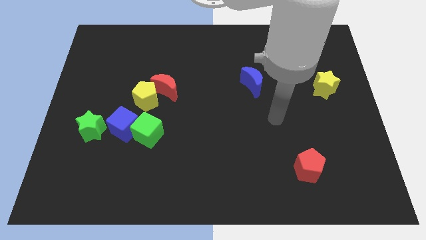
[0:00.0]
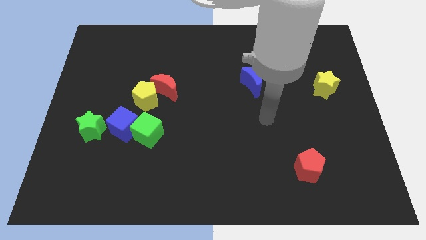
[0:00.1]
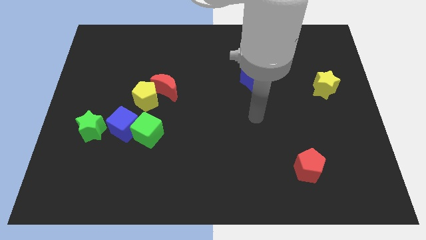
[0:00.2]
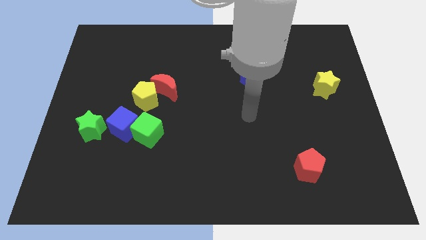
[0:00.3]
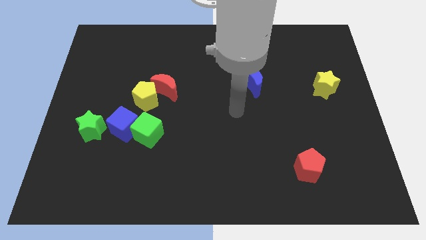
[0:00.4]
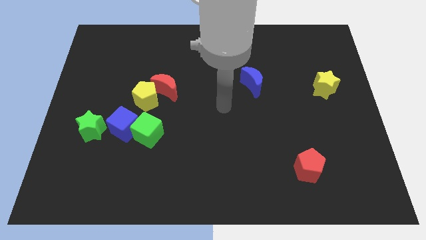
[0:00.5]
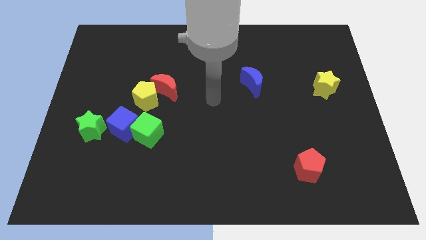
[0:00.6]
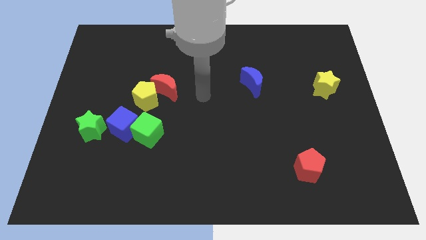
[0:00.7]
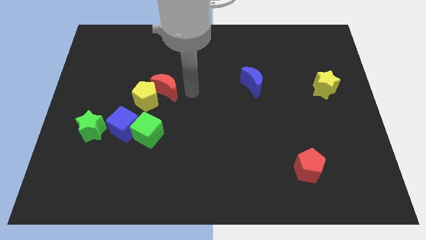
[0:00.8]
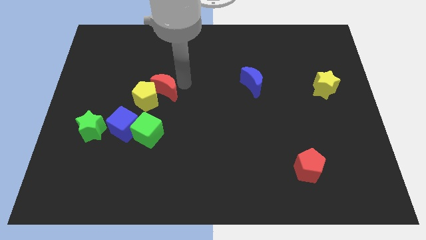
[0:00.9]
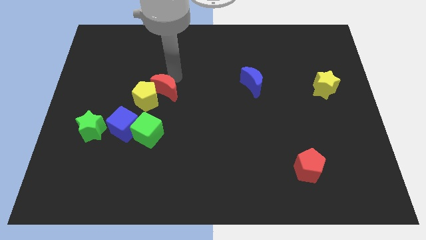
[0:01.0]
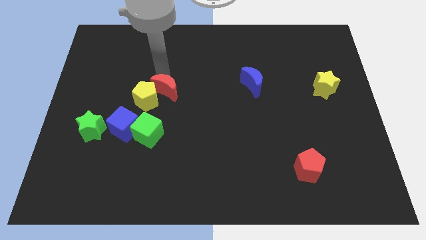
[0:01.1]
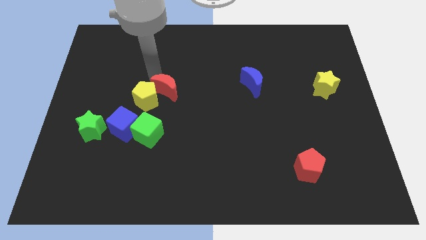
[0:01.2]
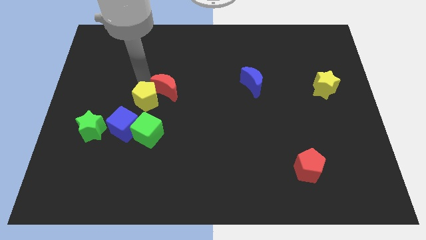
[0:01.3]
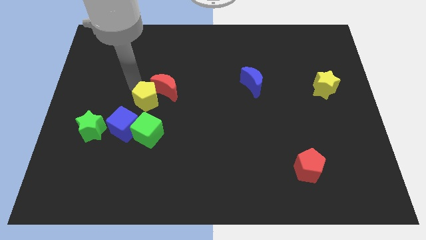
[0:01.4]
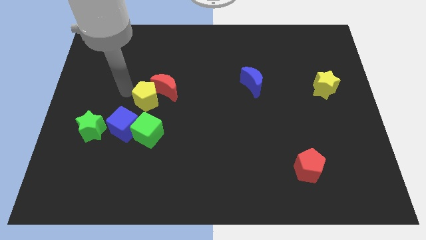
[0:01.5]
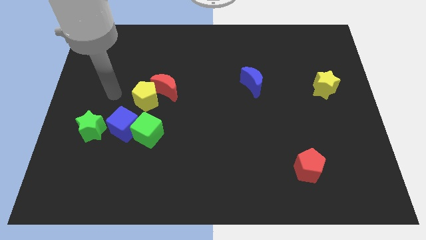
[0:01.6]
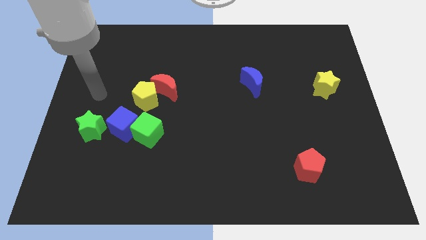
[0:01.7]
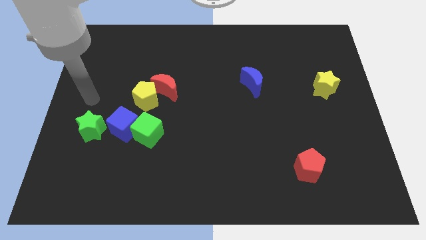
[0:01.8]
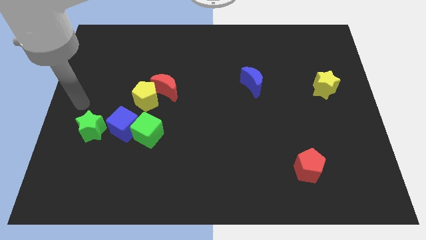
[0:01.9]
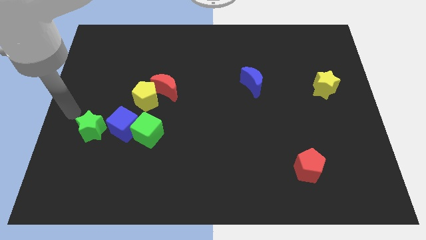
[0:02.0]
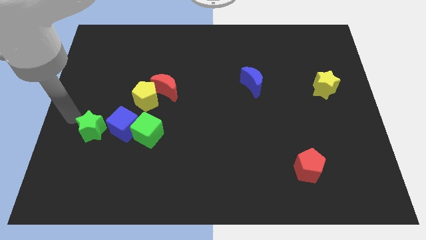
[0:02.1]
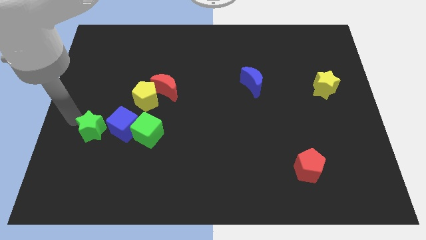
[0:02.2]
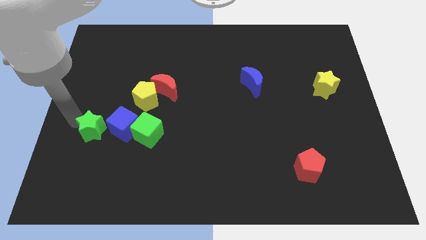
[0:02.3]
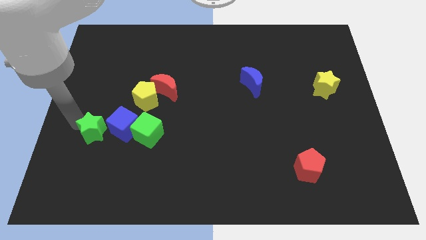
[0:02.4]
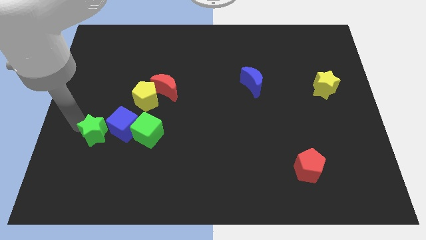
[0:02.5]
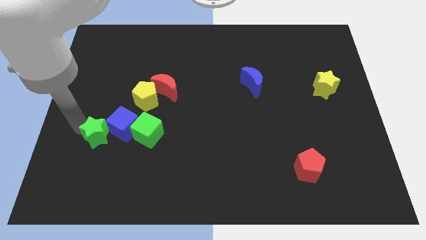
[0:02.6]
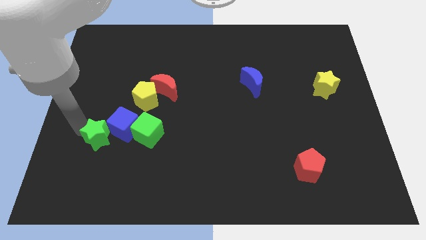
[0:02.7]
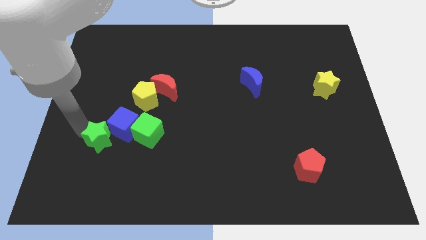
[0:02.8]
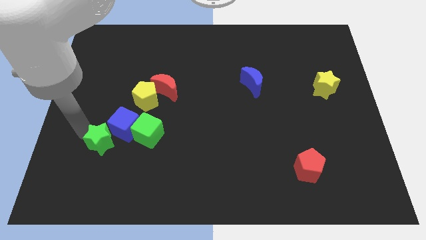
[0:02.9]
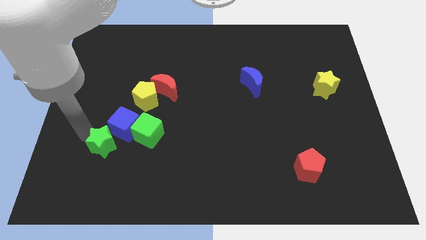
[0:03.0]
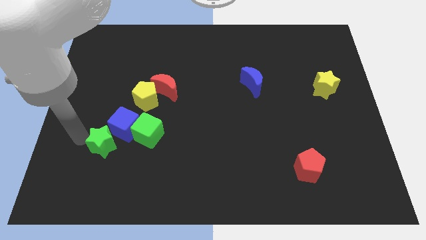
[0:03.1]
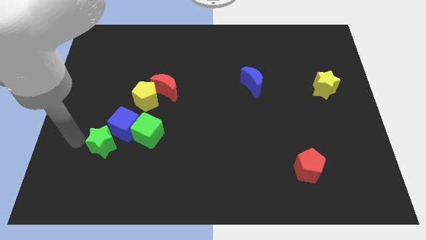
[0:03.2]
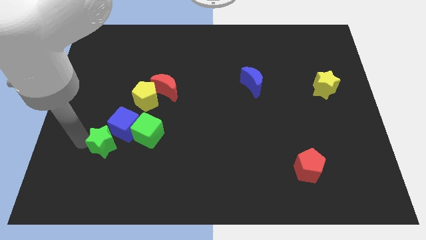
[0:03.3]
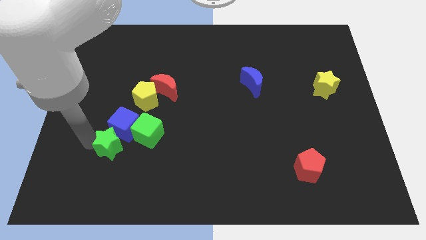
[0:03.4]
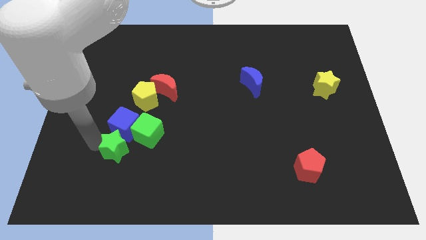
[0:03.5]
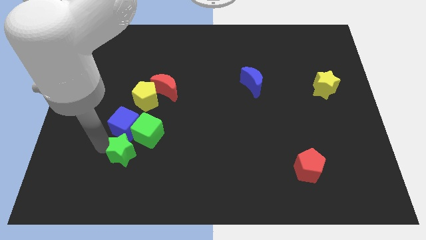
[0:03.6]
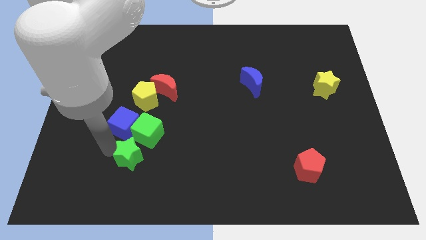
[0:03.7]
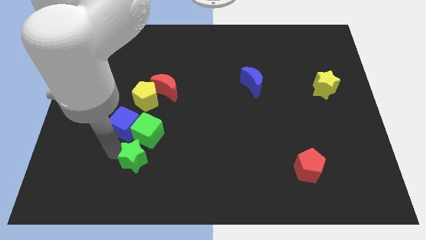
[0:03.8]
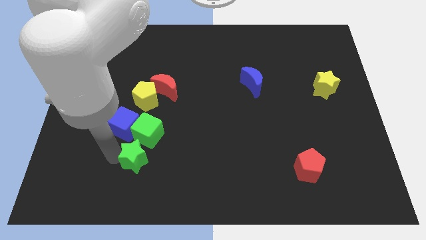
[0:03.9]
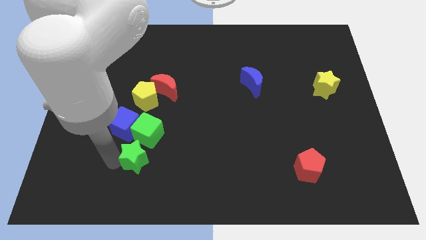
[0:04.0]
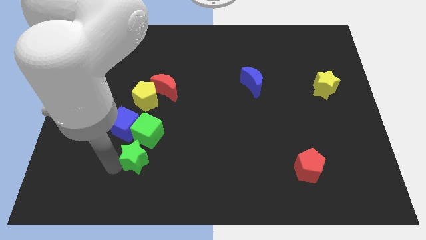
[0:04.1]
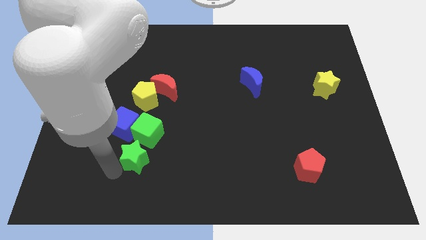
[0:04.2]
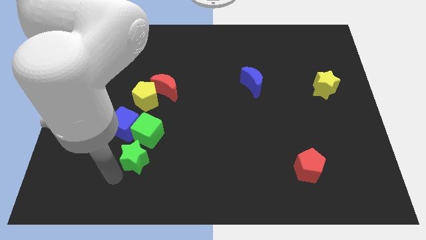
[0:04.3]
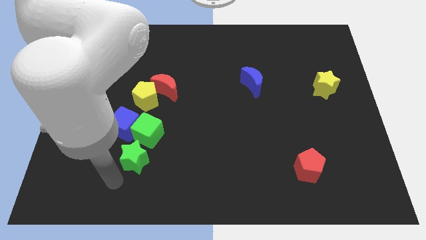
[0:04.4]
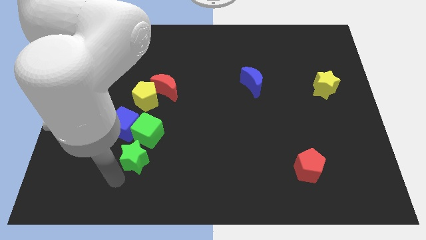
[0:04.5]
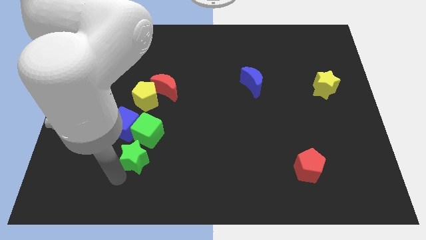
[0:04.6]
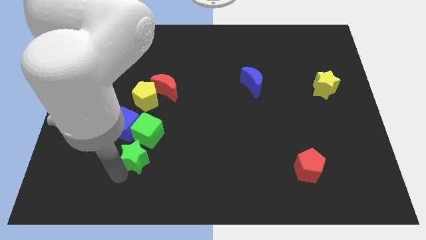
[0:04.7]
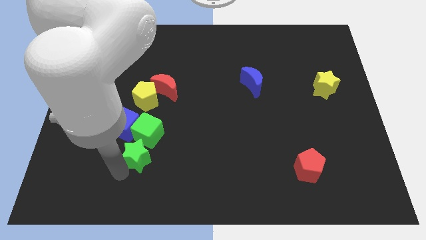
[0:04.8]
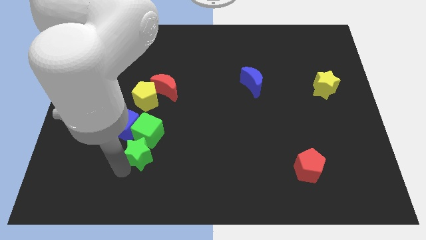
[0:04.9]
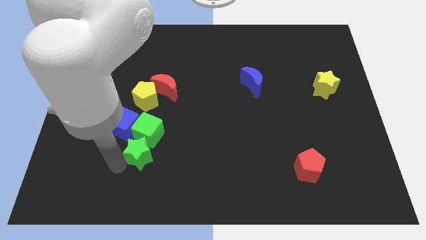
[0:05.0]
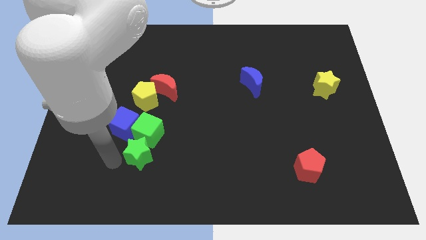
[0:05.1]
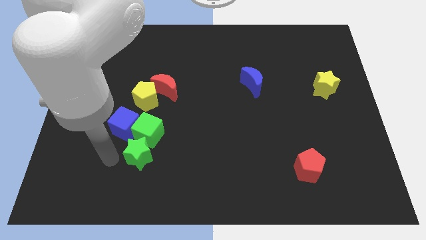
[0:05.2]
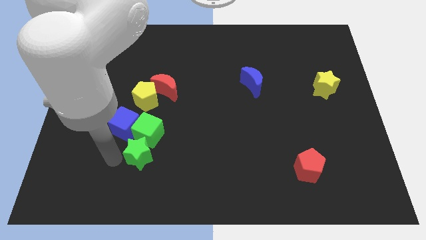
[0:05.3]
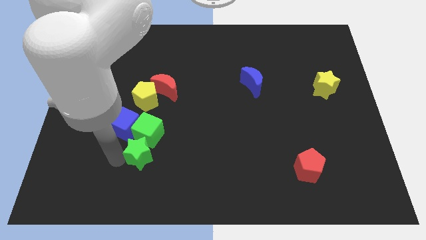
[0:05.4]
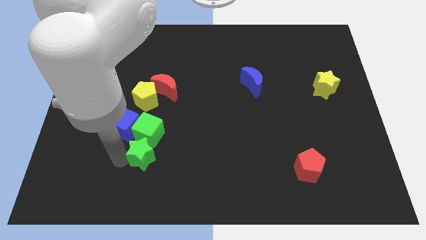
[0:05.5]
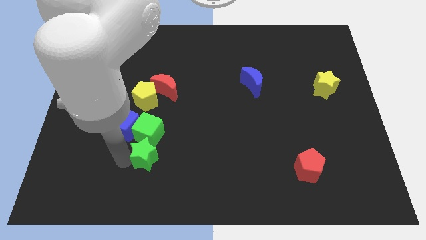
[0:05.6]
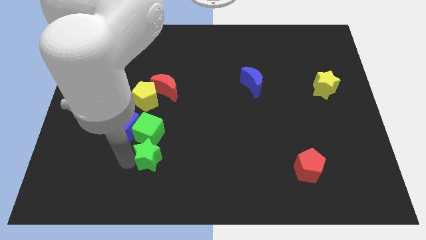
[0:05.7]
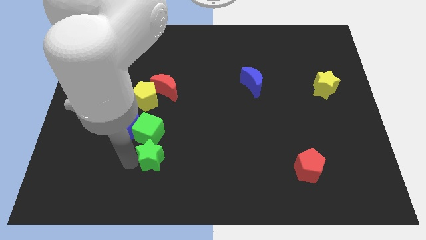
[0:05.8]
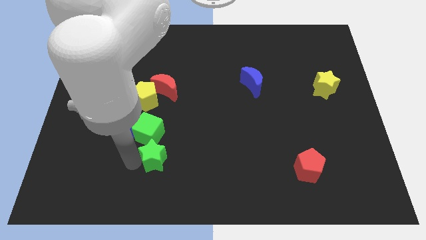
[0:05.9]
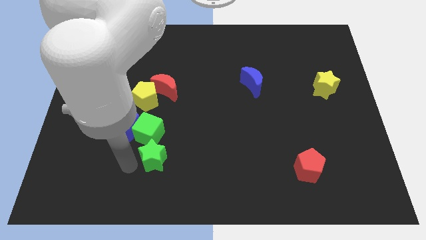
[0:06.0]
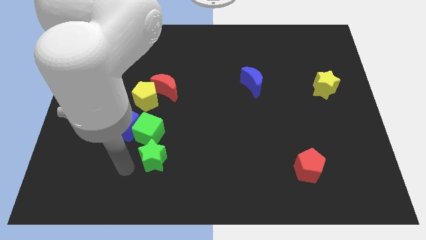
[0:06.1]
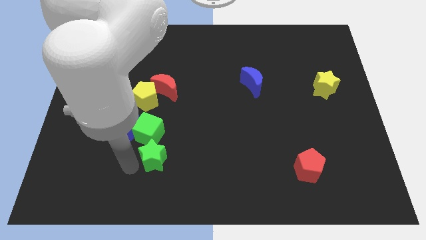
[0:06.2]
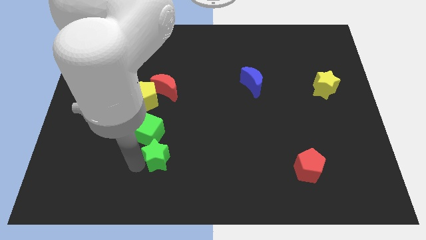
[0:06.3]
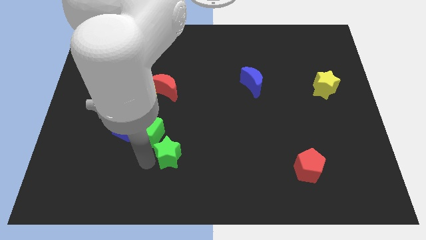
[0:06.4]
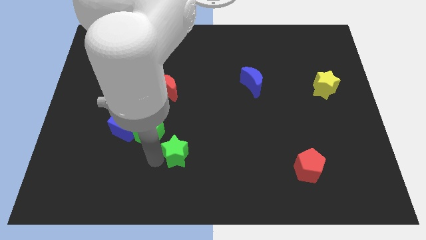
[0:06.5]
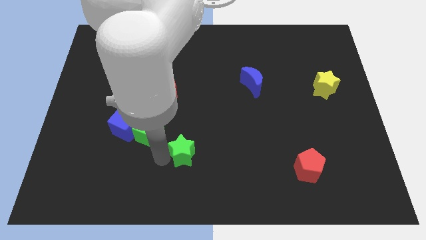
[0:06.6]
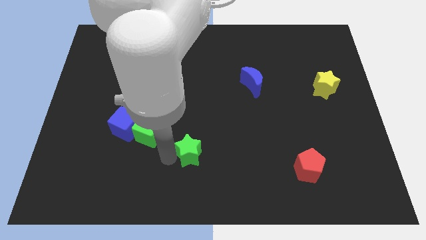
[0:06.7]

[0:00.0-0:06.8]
move the green star right

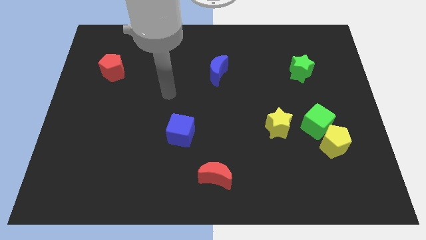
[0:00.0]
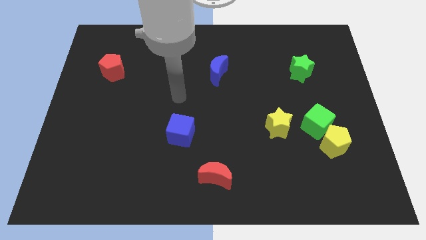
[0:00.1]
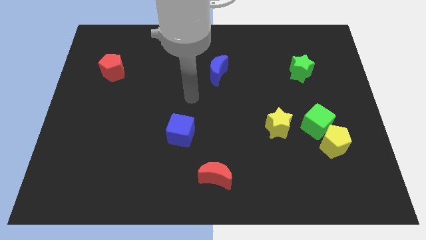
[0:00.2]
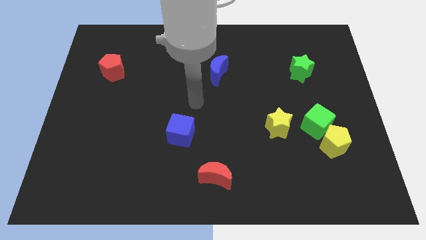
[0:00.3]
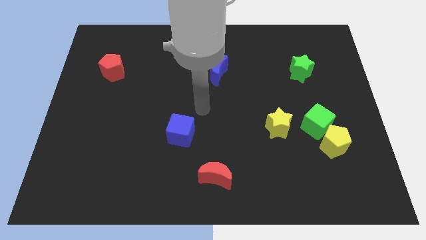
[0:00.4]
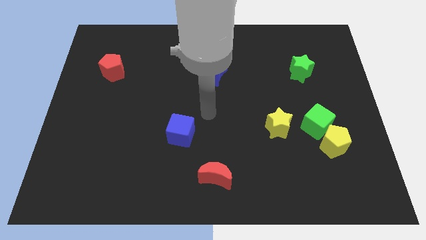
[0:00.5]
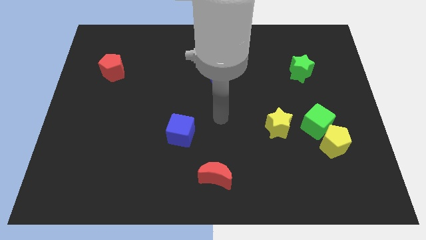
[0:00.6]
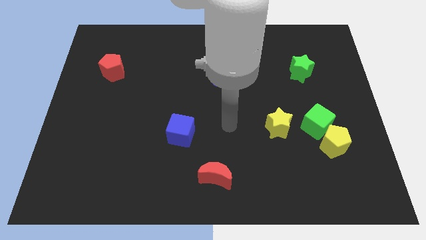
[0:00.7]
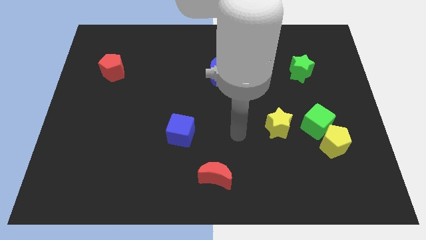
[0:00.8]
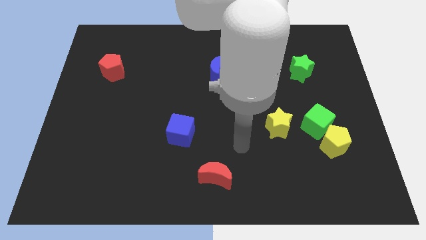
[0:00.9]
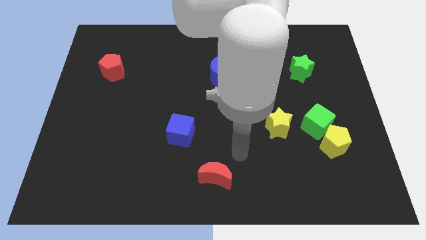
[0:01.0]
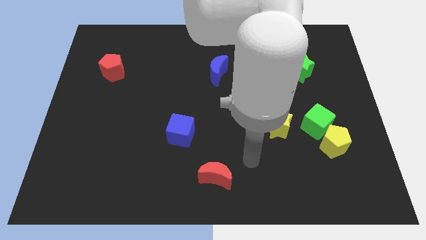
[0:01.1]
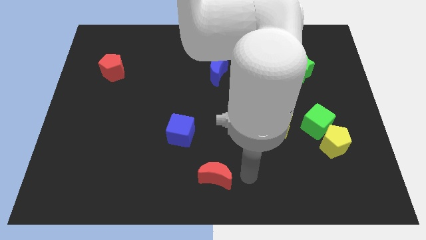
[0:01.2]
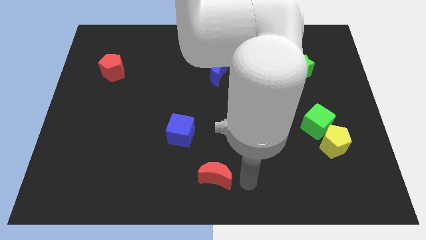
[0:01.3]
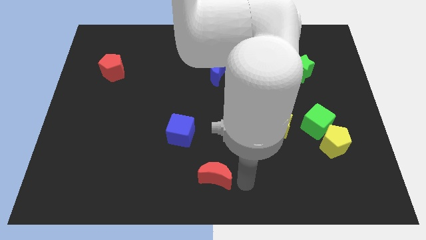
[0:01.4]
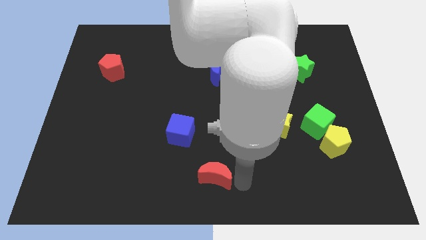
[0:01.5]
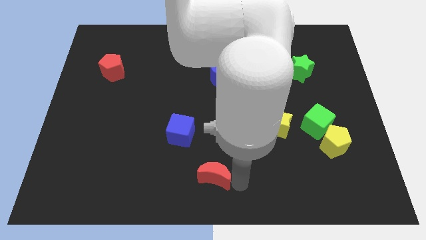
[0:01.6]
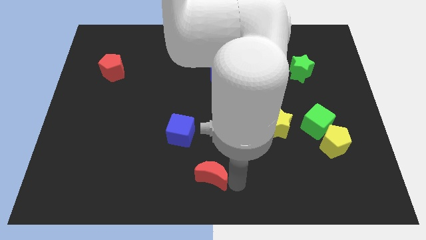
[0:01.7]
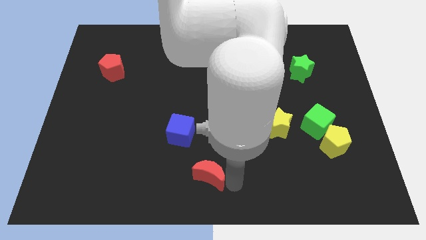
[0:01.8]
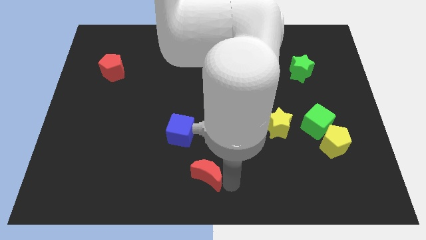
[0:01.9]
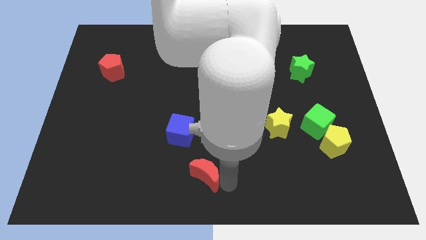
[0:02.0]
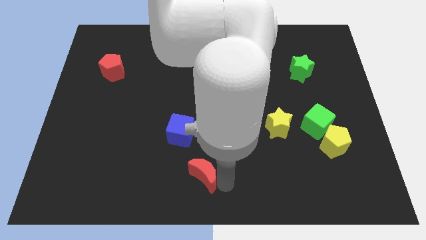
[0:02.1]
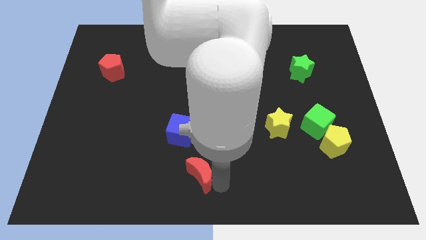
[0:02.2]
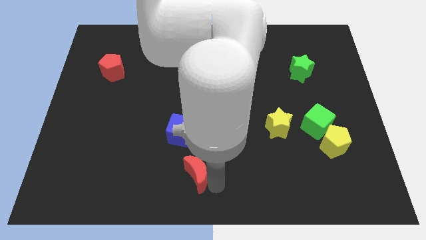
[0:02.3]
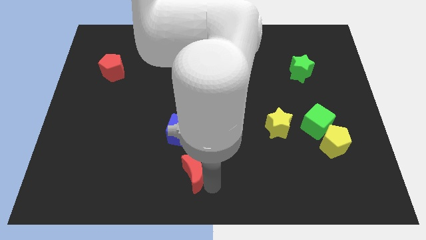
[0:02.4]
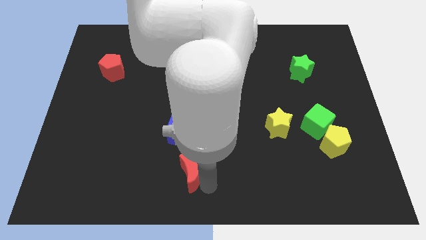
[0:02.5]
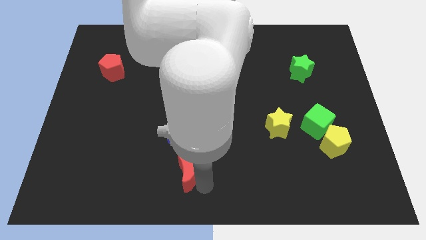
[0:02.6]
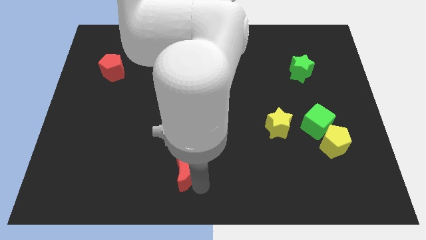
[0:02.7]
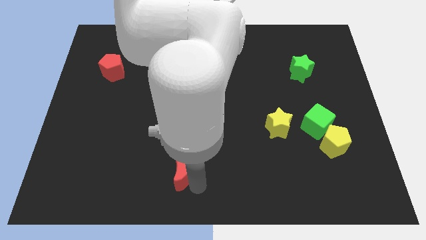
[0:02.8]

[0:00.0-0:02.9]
slightly move the red moon left
